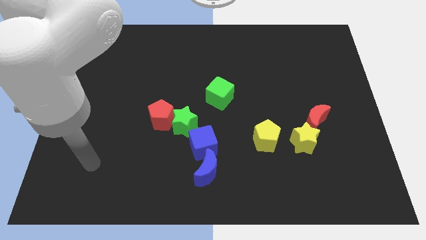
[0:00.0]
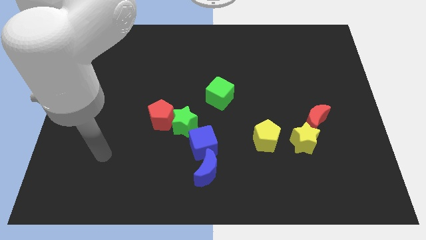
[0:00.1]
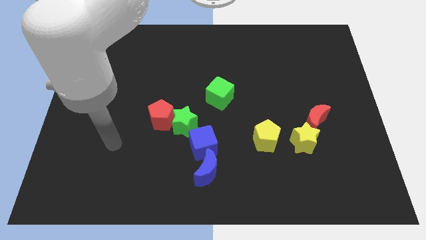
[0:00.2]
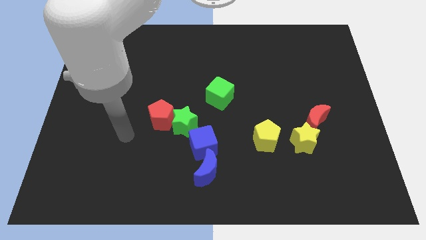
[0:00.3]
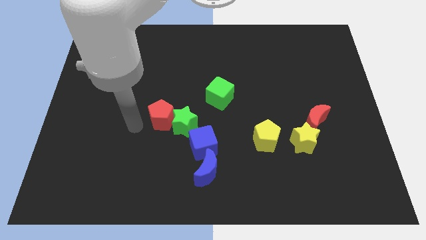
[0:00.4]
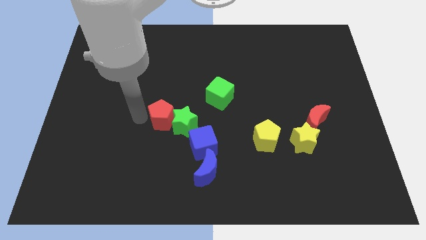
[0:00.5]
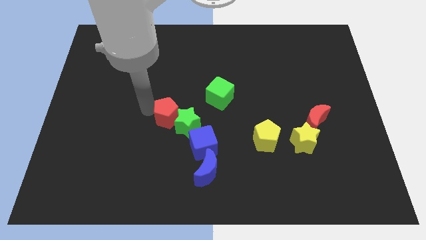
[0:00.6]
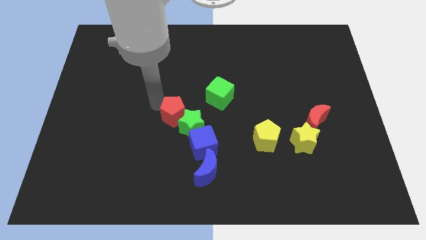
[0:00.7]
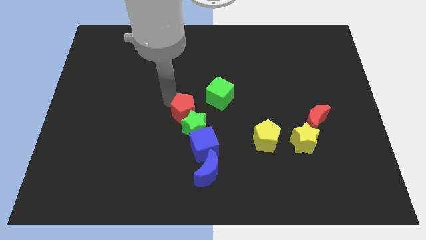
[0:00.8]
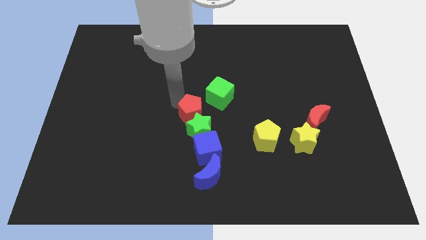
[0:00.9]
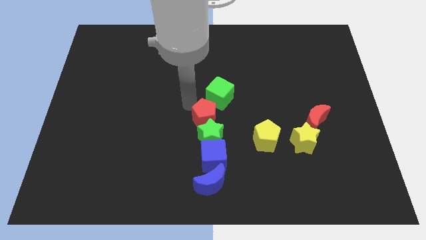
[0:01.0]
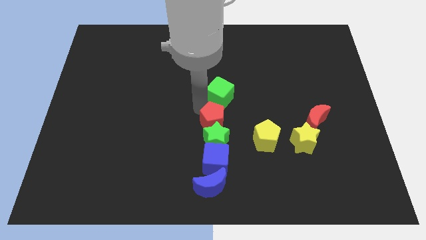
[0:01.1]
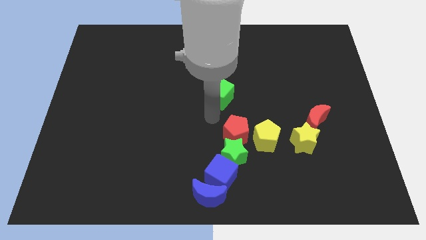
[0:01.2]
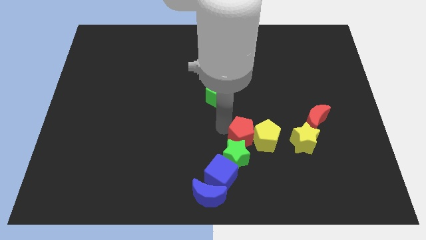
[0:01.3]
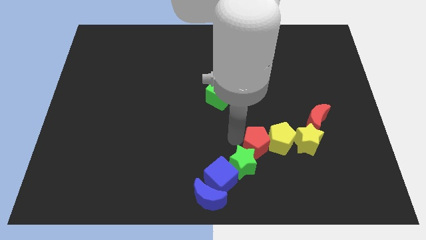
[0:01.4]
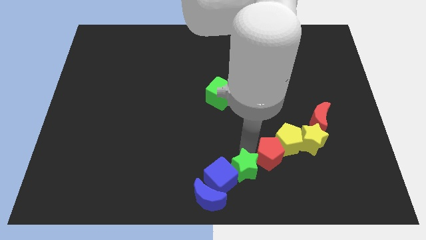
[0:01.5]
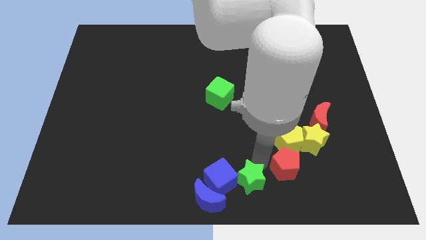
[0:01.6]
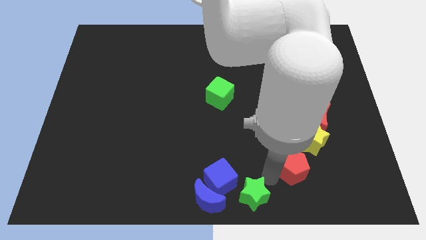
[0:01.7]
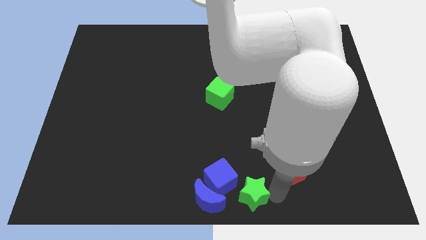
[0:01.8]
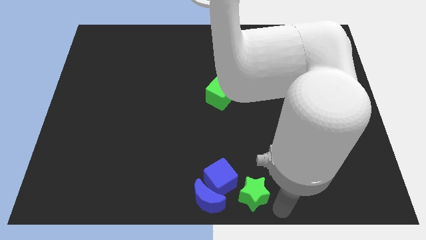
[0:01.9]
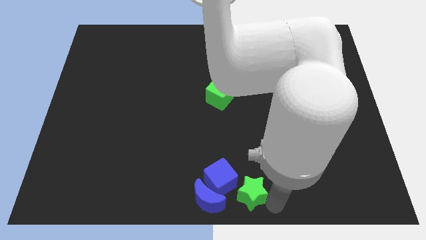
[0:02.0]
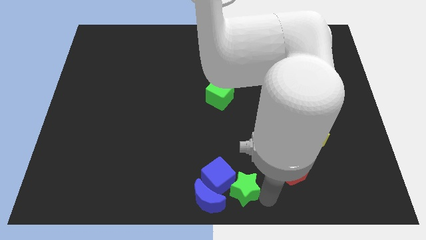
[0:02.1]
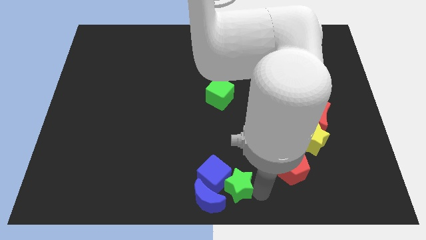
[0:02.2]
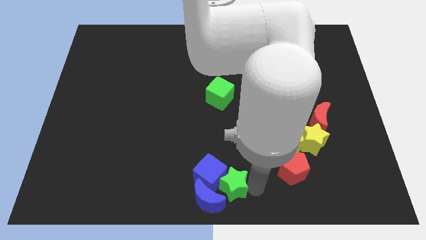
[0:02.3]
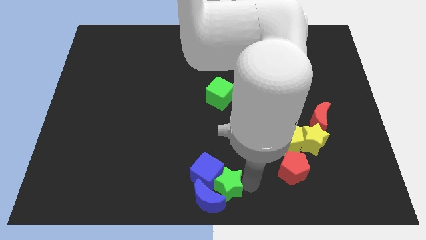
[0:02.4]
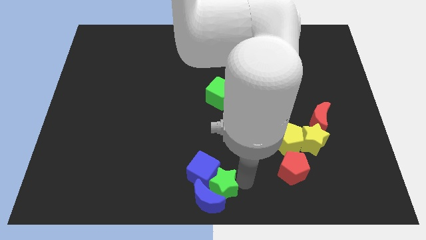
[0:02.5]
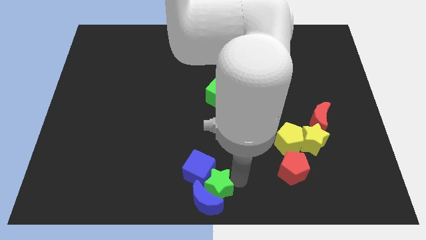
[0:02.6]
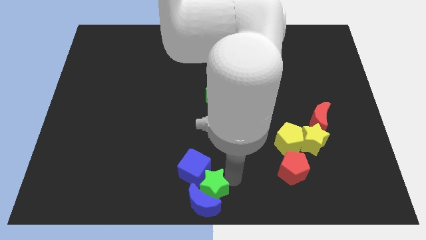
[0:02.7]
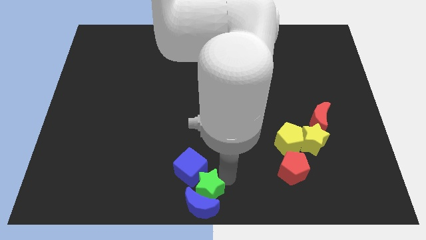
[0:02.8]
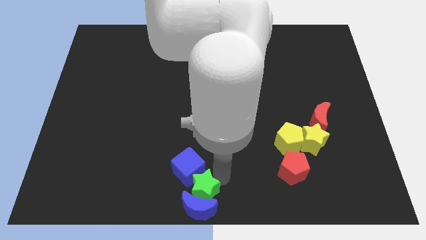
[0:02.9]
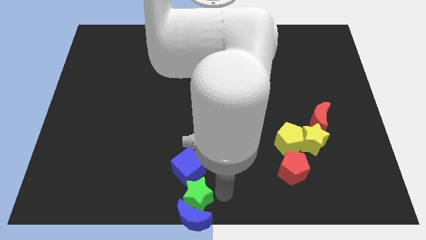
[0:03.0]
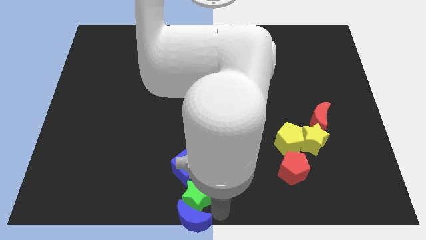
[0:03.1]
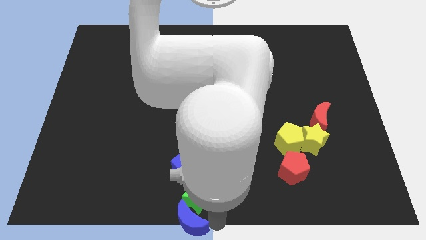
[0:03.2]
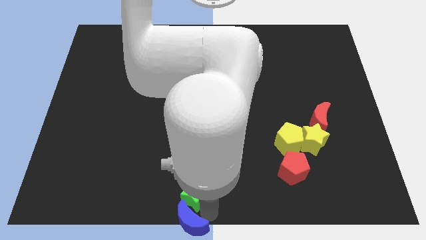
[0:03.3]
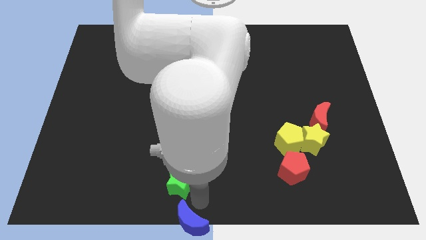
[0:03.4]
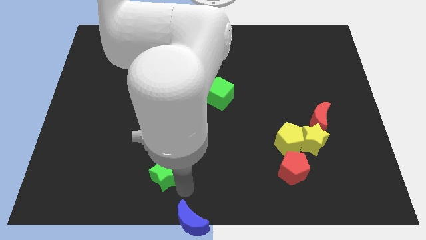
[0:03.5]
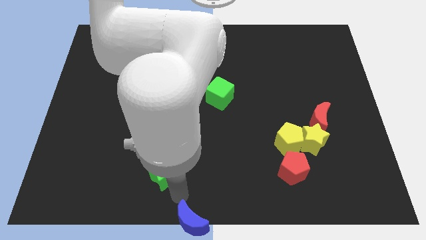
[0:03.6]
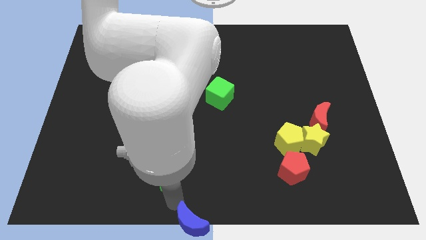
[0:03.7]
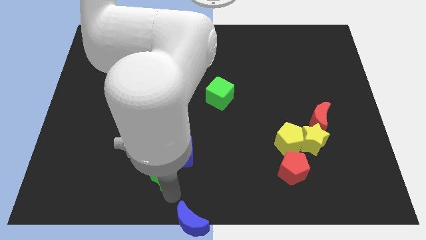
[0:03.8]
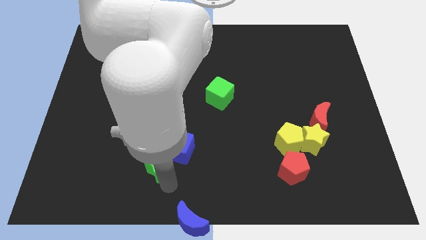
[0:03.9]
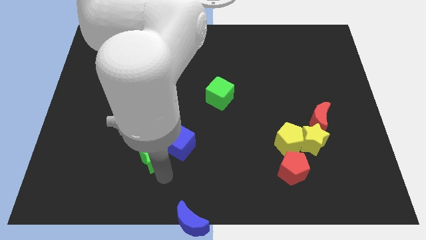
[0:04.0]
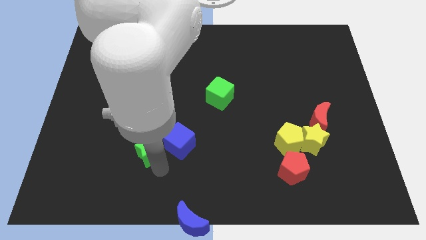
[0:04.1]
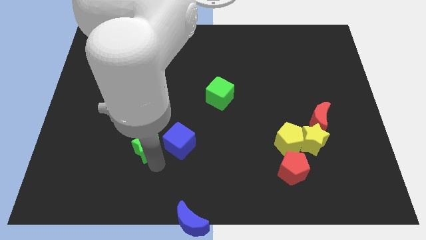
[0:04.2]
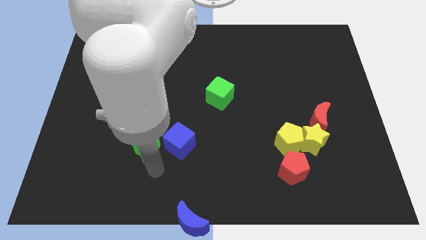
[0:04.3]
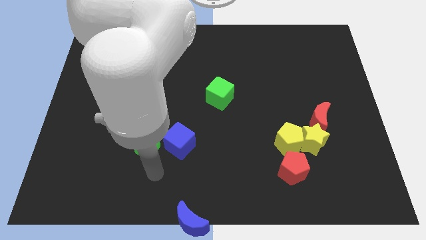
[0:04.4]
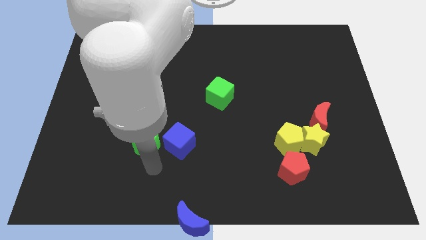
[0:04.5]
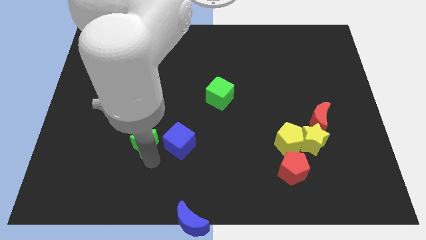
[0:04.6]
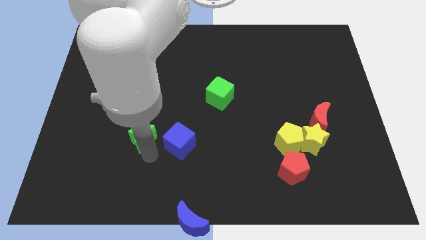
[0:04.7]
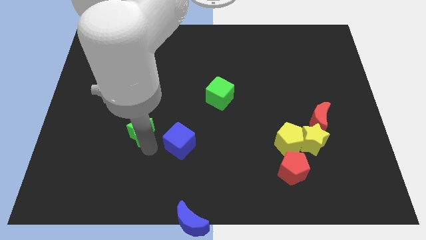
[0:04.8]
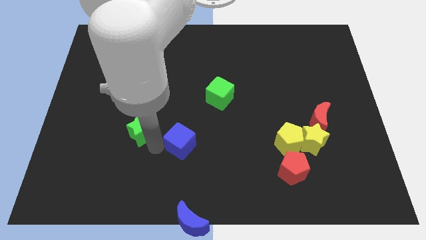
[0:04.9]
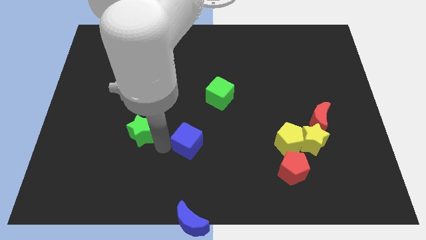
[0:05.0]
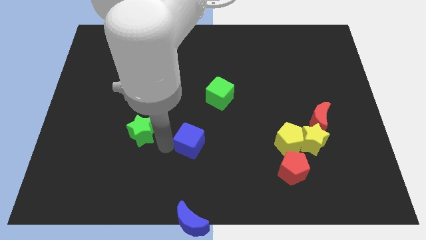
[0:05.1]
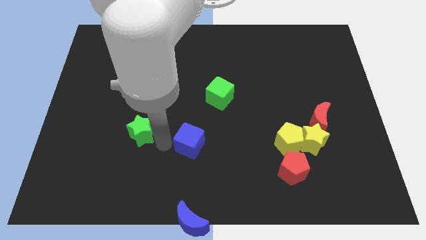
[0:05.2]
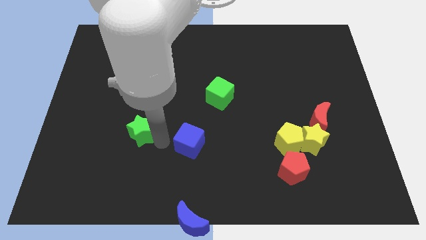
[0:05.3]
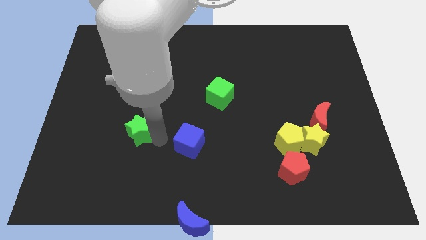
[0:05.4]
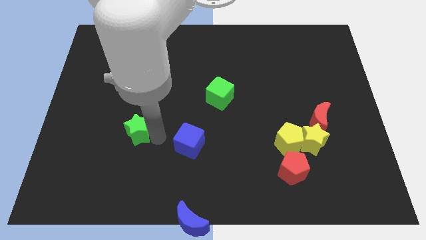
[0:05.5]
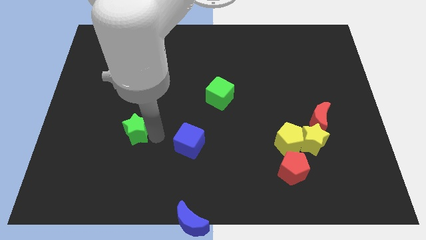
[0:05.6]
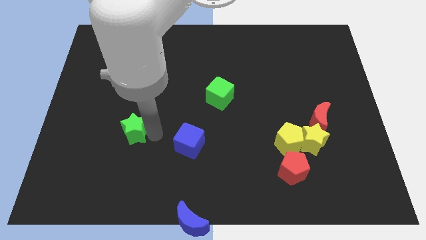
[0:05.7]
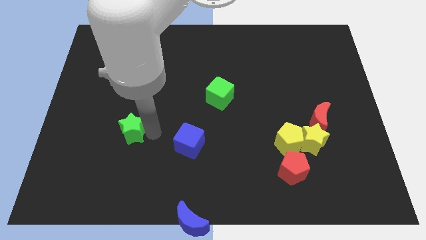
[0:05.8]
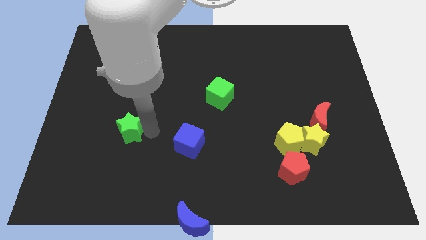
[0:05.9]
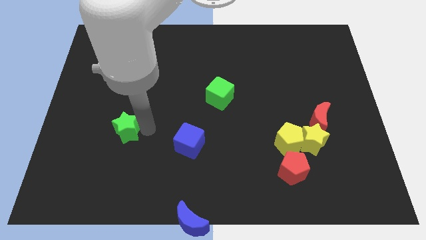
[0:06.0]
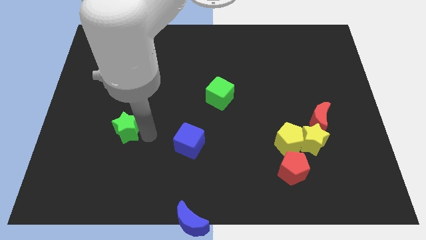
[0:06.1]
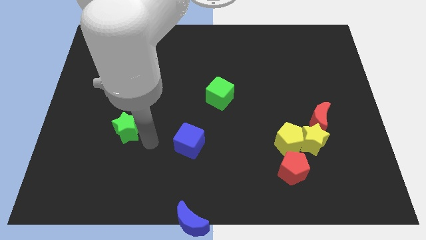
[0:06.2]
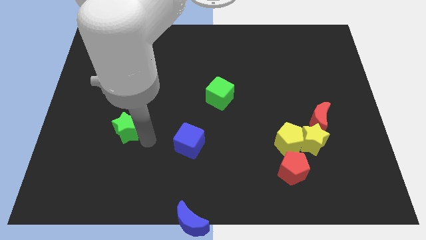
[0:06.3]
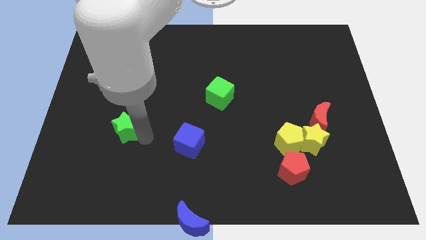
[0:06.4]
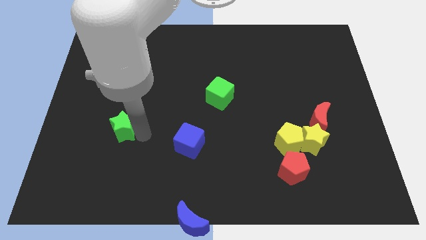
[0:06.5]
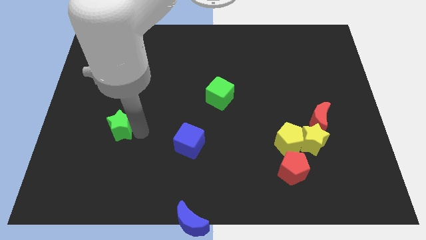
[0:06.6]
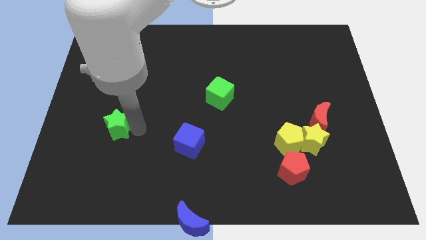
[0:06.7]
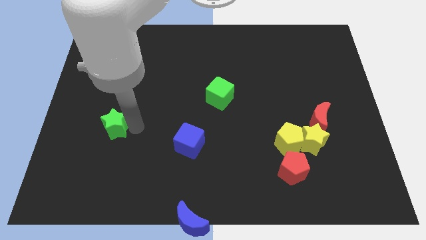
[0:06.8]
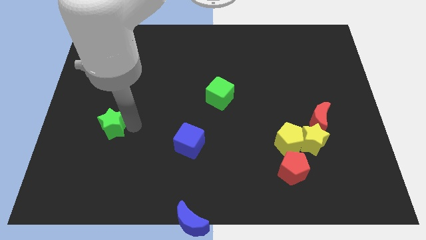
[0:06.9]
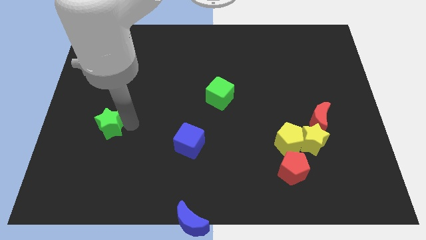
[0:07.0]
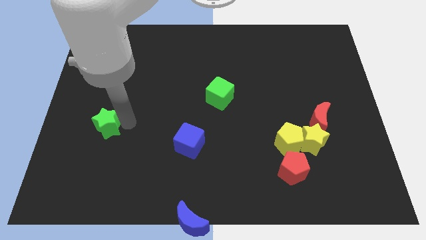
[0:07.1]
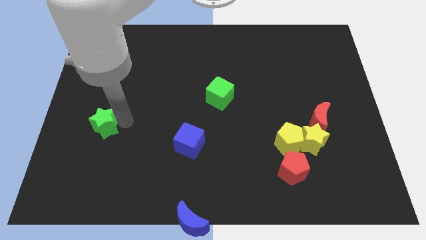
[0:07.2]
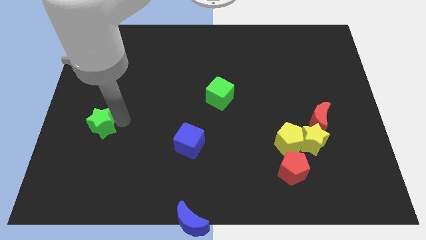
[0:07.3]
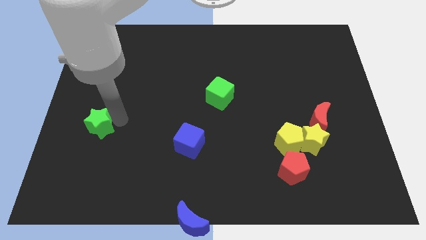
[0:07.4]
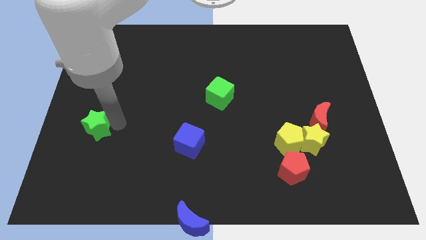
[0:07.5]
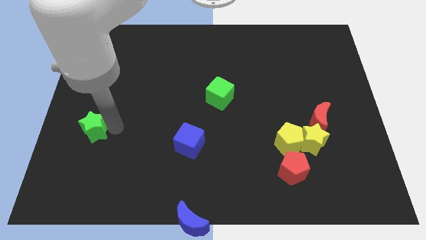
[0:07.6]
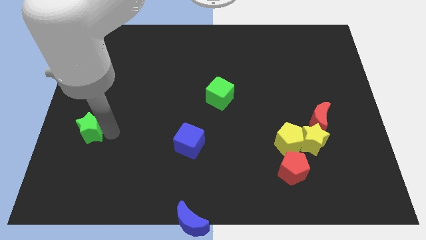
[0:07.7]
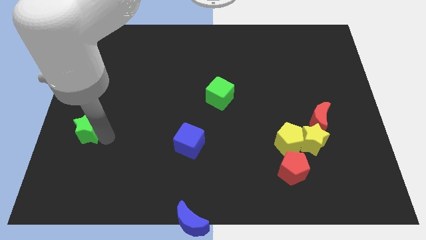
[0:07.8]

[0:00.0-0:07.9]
put the green star to the center left
